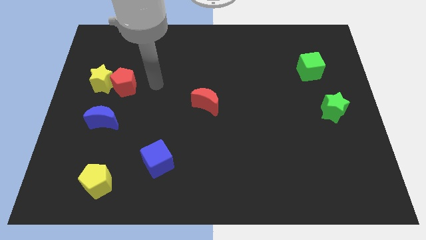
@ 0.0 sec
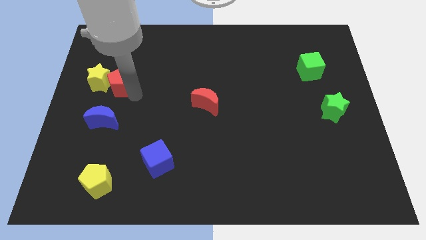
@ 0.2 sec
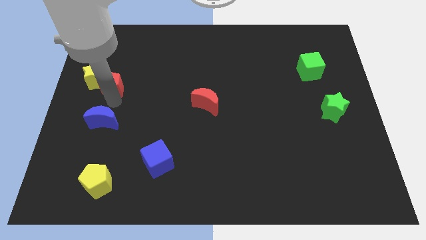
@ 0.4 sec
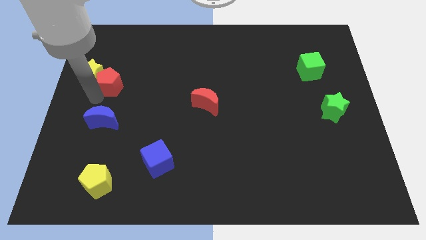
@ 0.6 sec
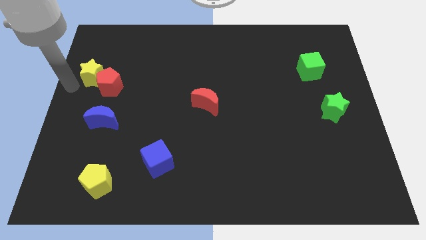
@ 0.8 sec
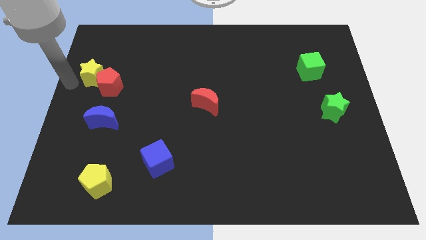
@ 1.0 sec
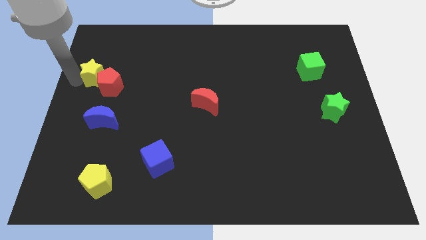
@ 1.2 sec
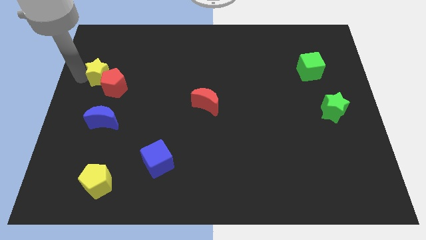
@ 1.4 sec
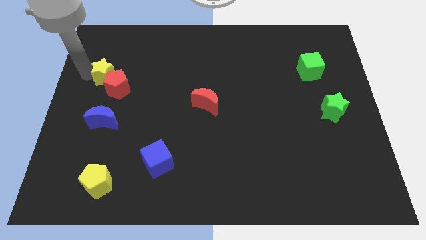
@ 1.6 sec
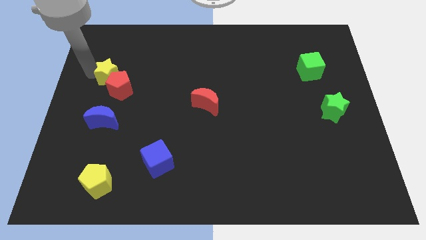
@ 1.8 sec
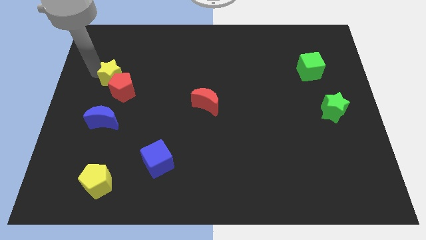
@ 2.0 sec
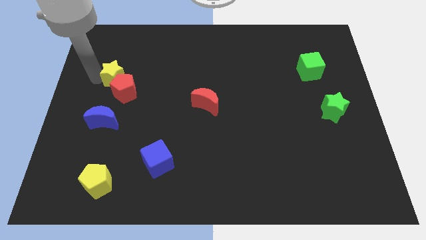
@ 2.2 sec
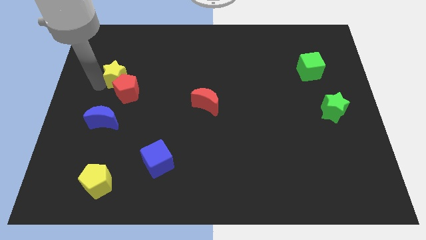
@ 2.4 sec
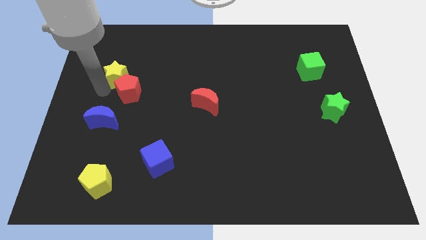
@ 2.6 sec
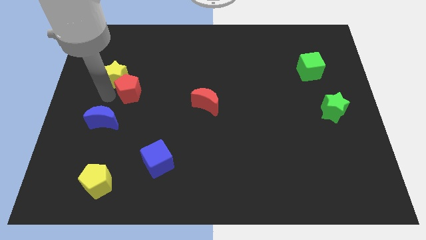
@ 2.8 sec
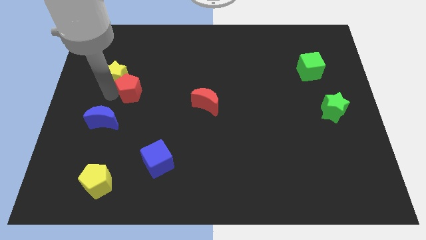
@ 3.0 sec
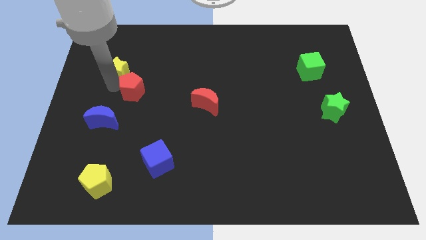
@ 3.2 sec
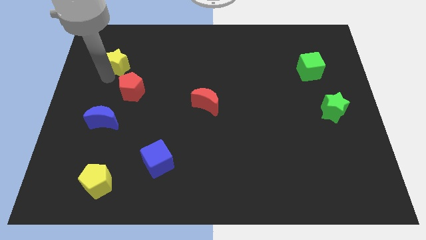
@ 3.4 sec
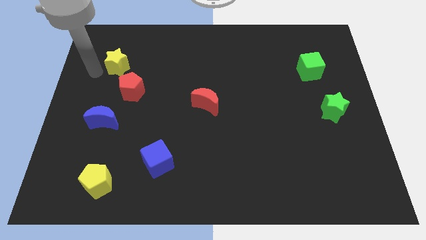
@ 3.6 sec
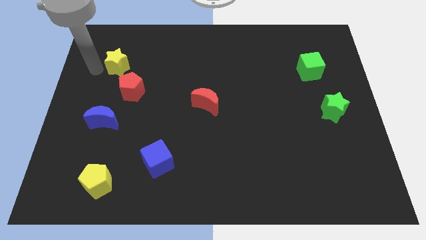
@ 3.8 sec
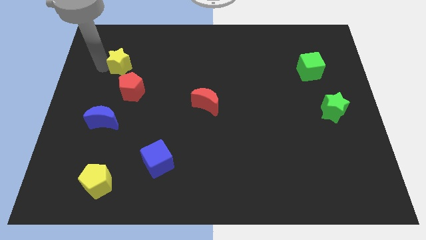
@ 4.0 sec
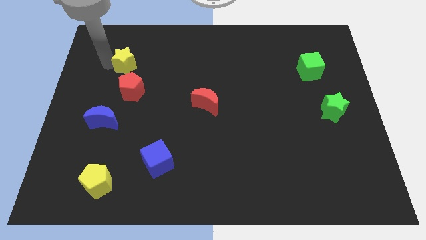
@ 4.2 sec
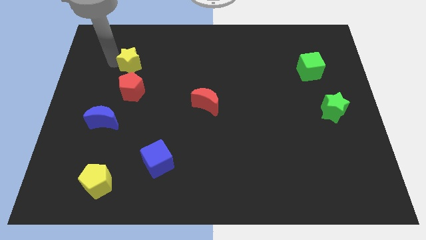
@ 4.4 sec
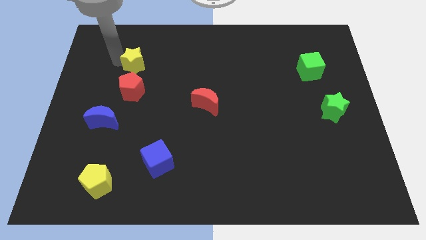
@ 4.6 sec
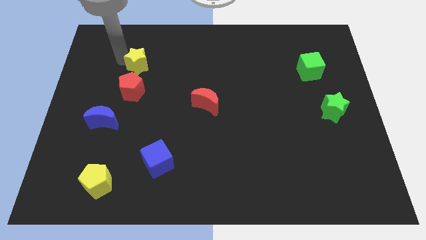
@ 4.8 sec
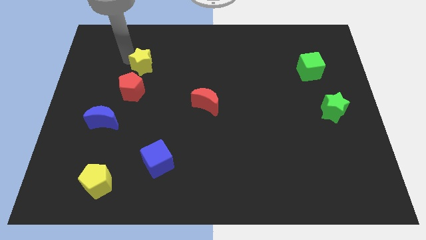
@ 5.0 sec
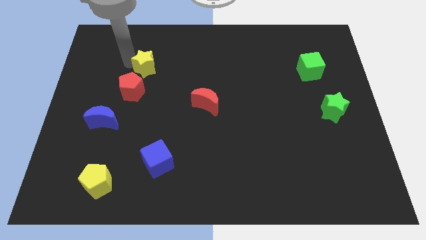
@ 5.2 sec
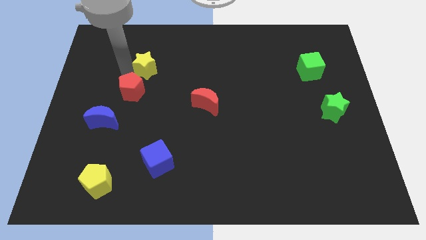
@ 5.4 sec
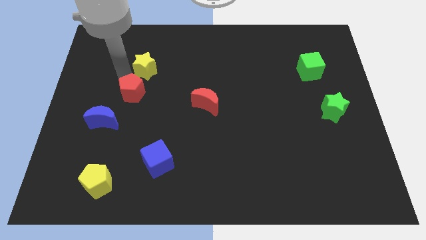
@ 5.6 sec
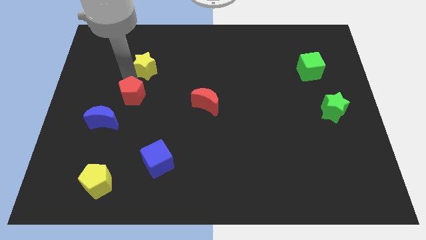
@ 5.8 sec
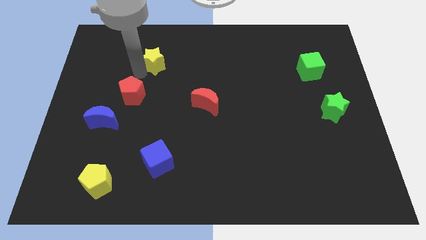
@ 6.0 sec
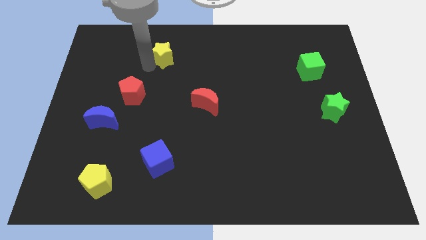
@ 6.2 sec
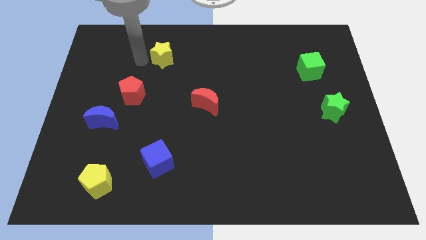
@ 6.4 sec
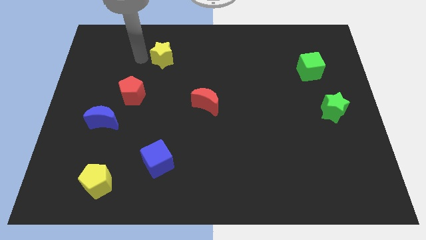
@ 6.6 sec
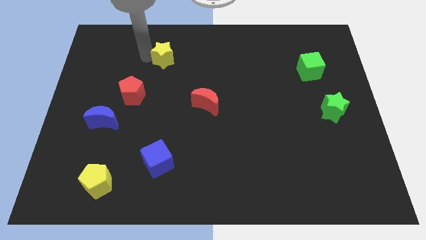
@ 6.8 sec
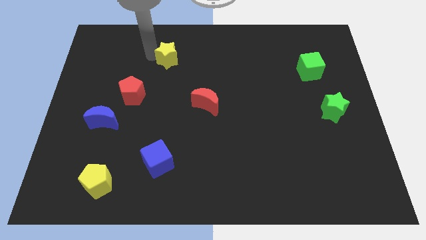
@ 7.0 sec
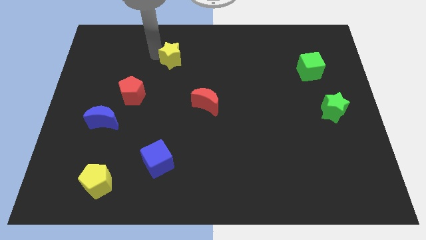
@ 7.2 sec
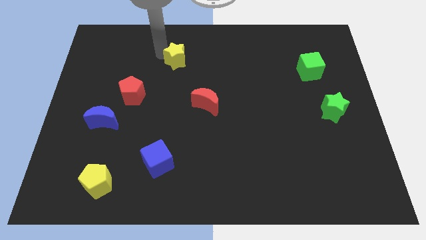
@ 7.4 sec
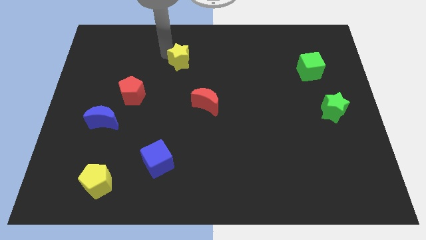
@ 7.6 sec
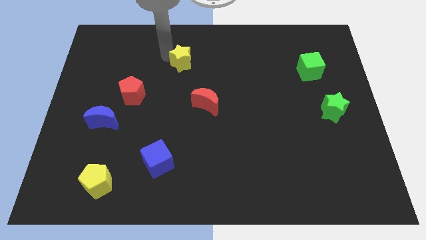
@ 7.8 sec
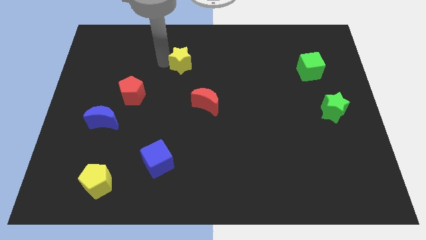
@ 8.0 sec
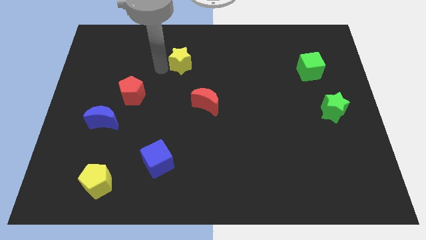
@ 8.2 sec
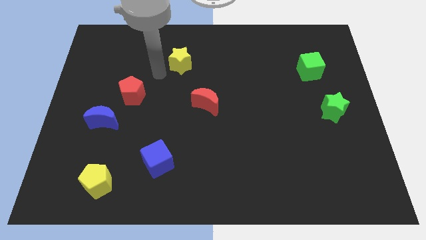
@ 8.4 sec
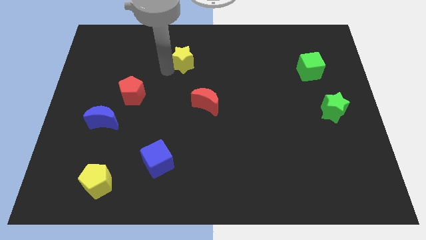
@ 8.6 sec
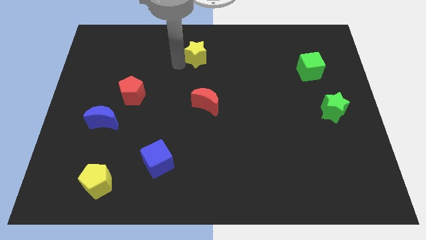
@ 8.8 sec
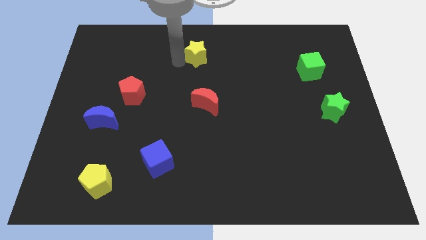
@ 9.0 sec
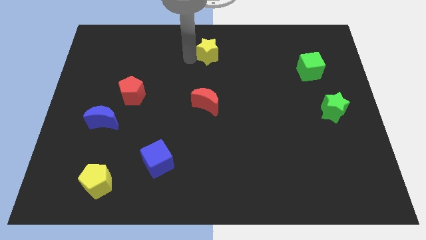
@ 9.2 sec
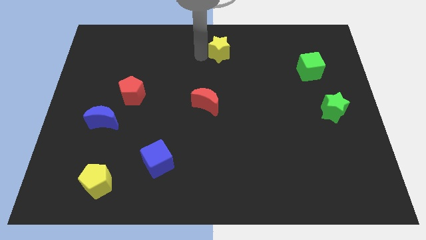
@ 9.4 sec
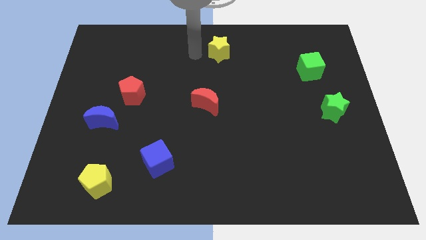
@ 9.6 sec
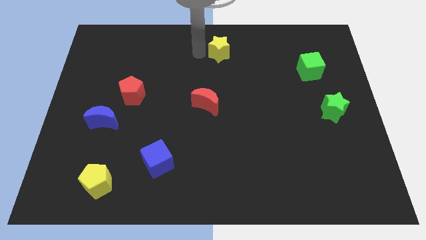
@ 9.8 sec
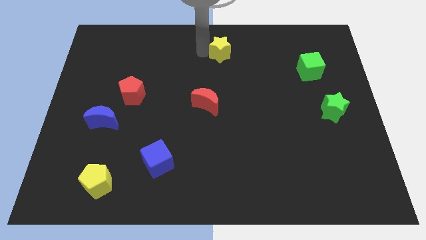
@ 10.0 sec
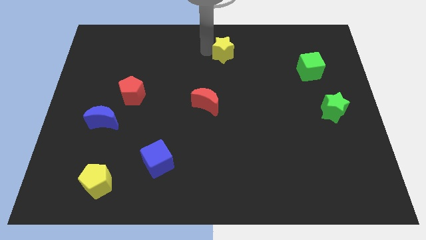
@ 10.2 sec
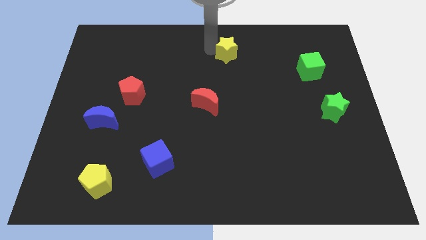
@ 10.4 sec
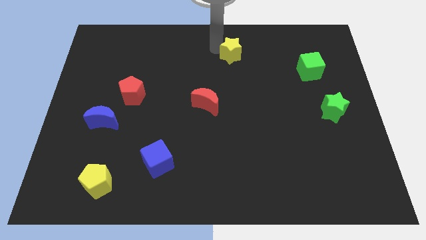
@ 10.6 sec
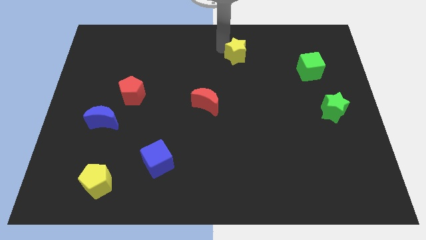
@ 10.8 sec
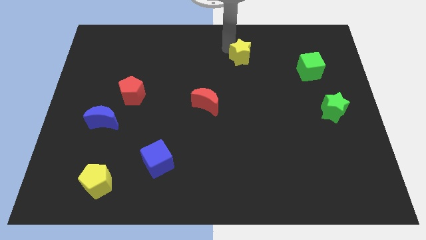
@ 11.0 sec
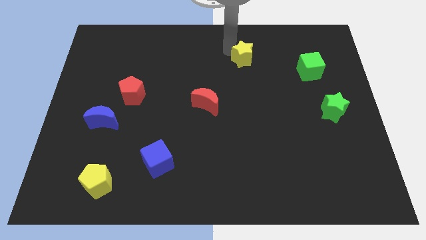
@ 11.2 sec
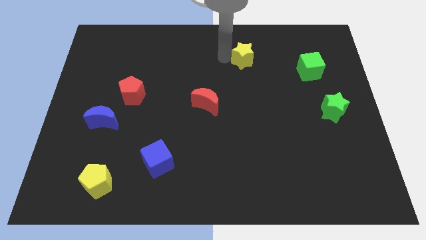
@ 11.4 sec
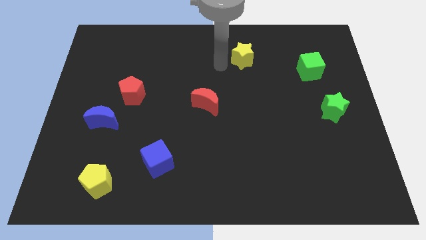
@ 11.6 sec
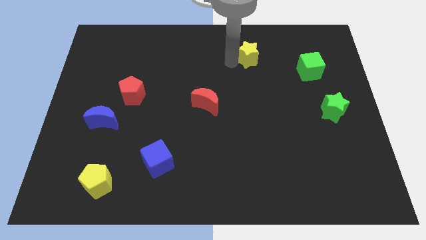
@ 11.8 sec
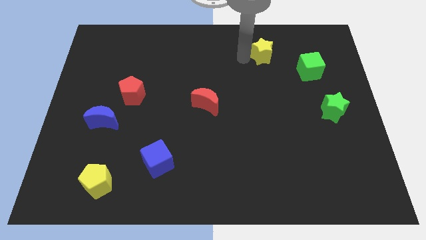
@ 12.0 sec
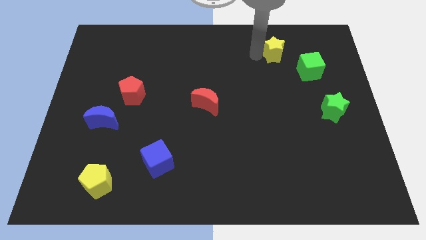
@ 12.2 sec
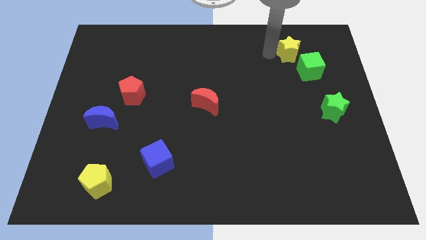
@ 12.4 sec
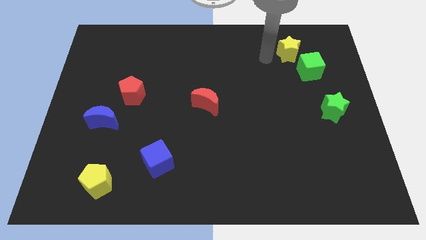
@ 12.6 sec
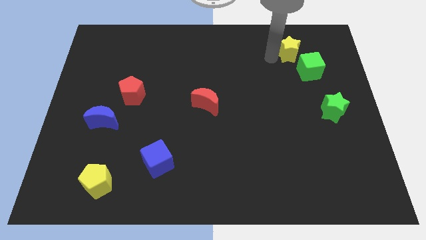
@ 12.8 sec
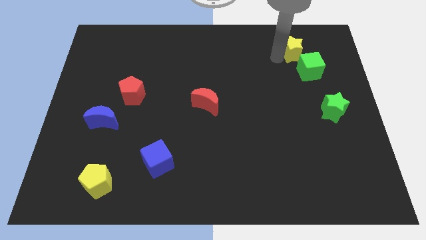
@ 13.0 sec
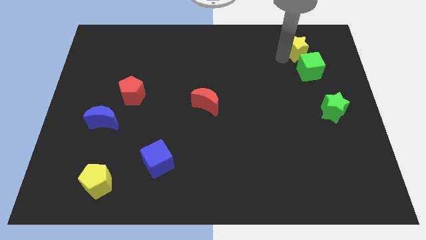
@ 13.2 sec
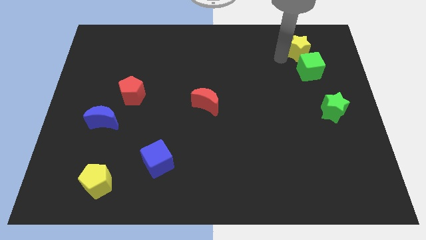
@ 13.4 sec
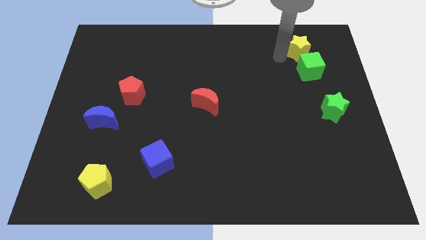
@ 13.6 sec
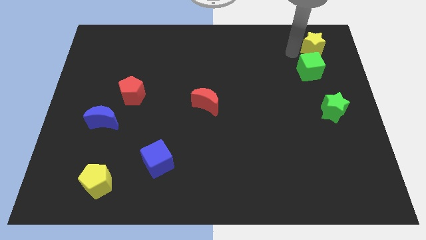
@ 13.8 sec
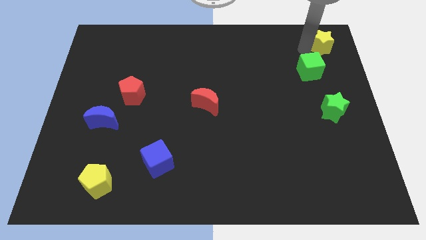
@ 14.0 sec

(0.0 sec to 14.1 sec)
put the yellow star to the upper right corner
